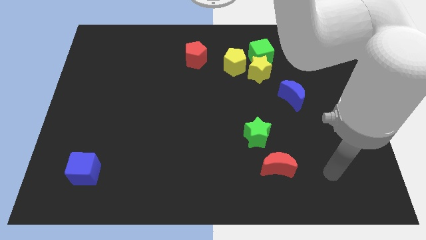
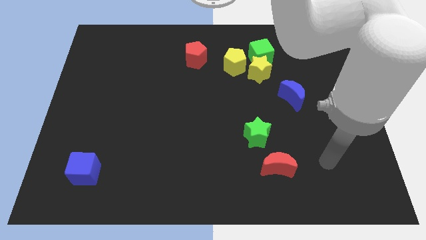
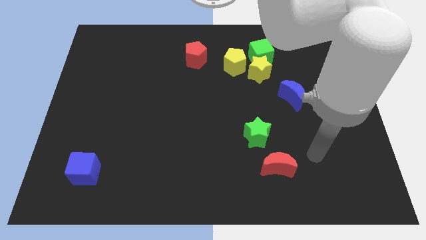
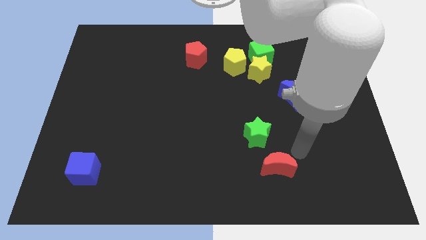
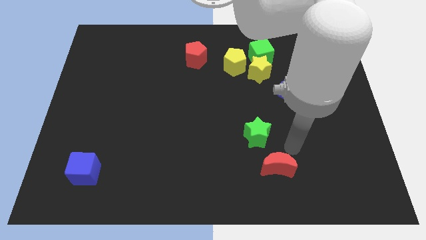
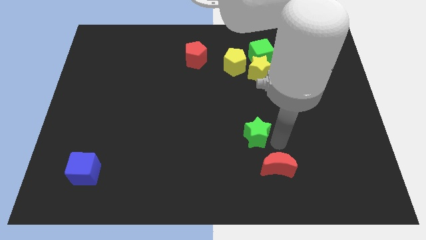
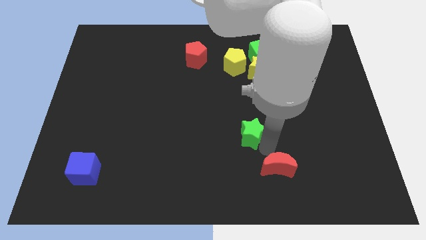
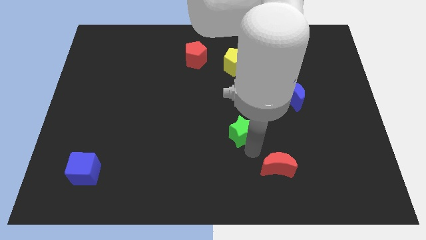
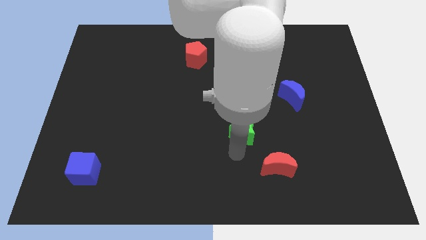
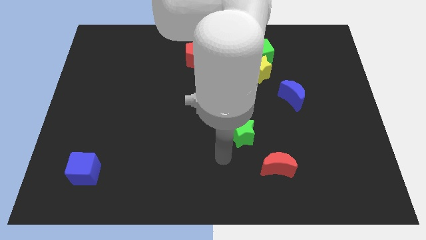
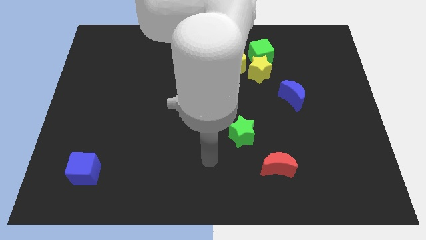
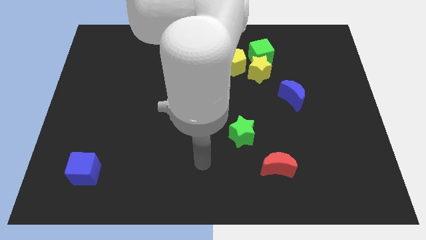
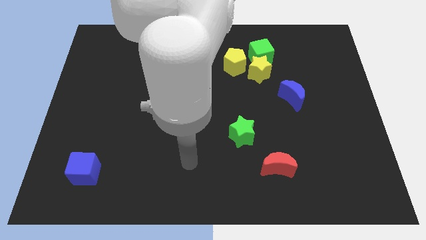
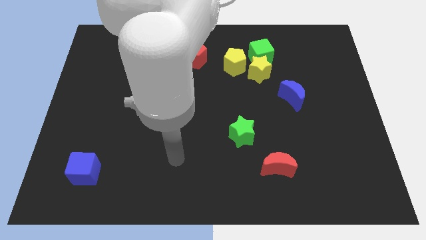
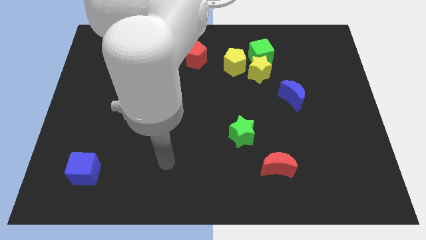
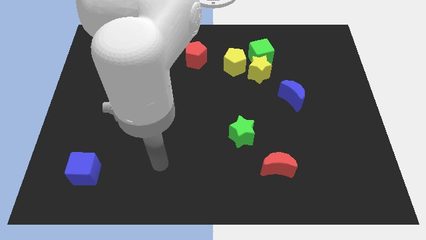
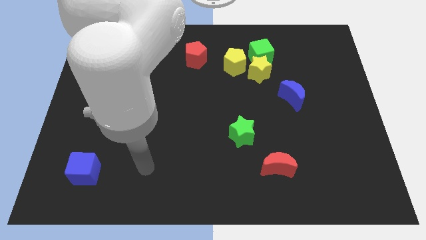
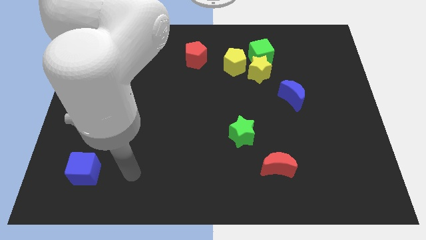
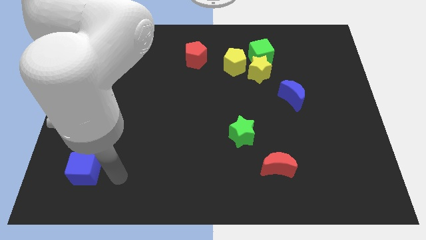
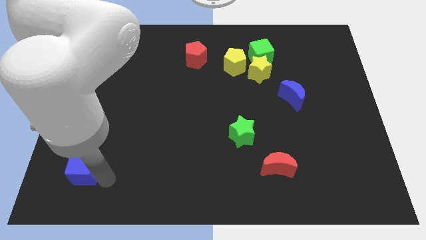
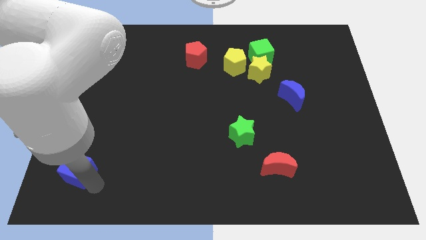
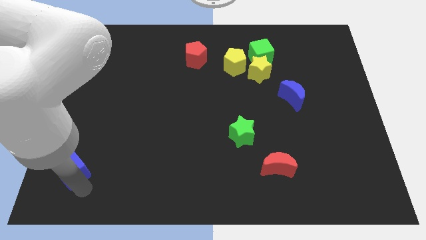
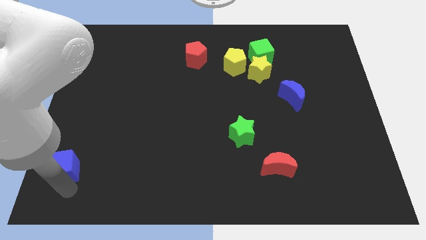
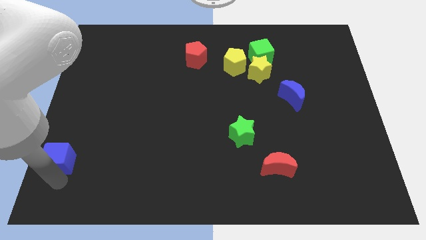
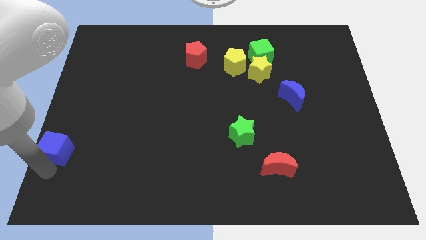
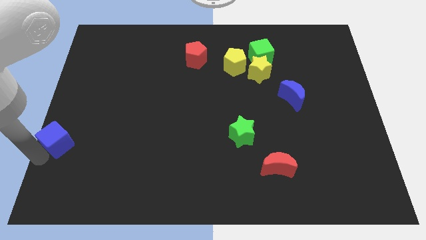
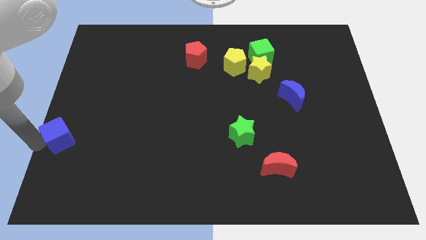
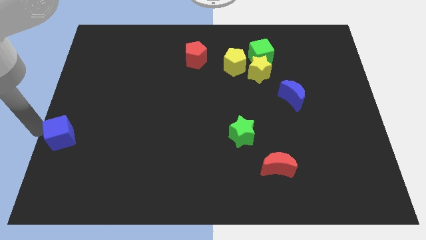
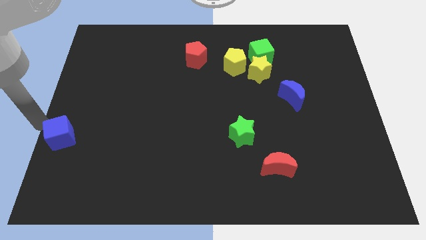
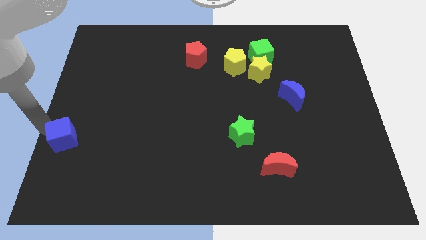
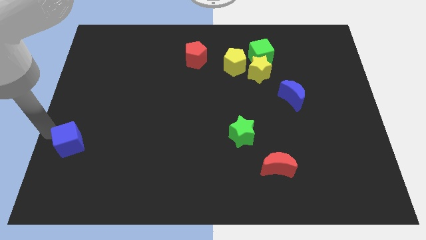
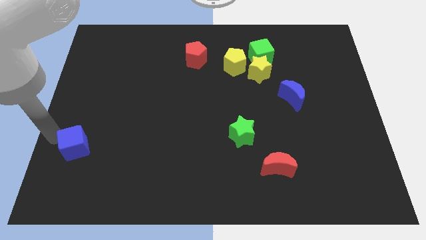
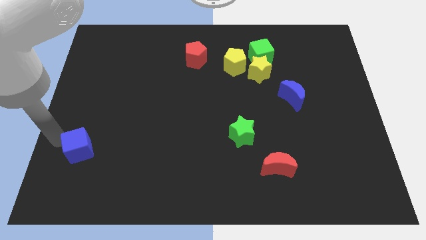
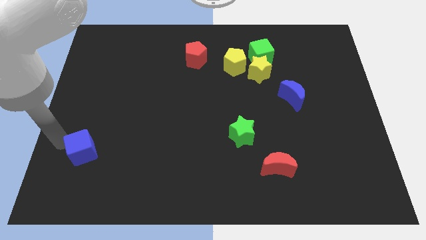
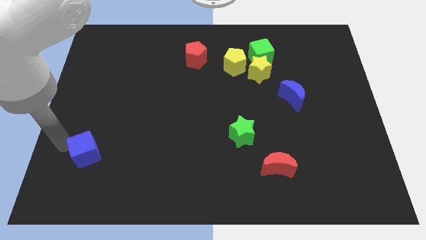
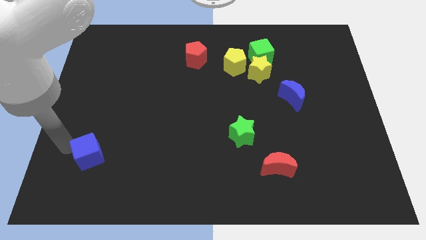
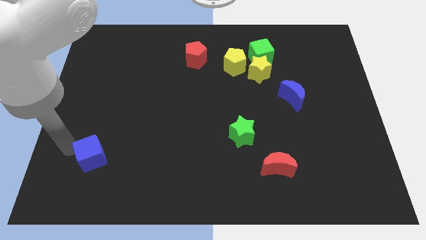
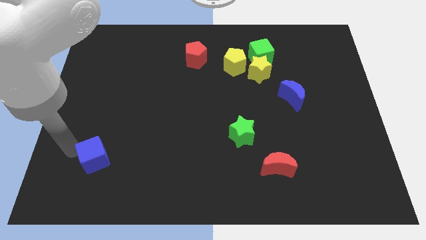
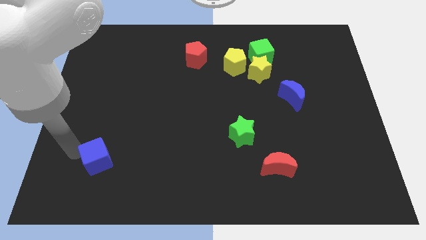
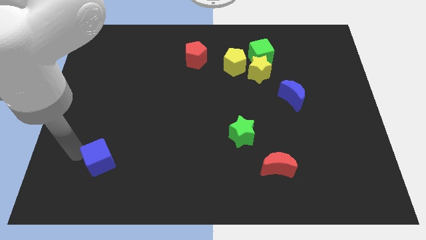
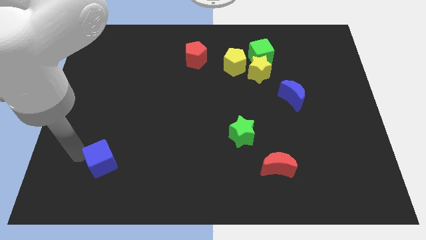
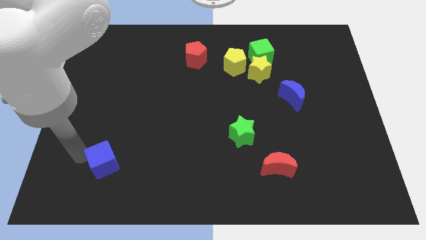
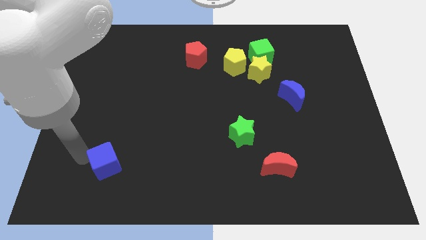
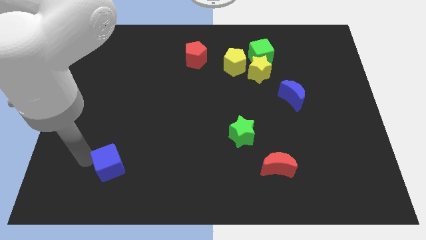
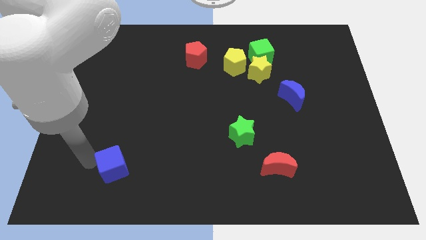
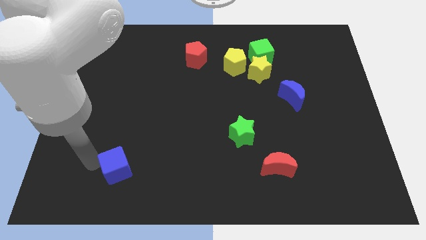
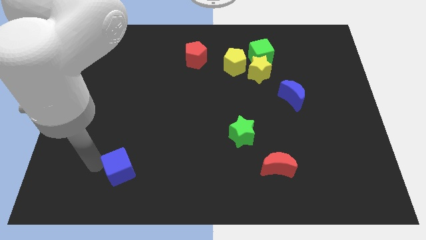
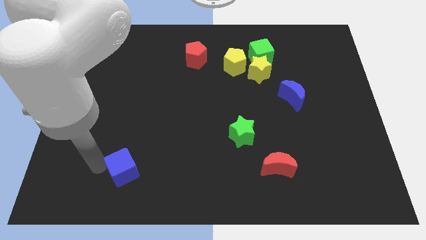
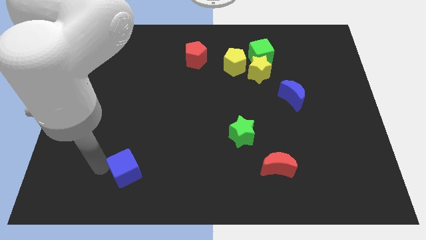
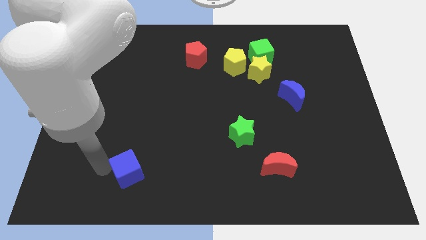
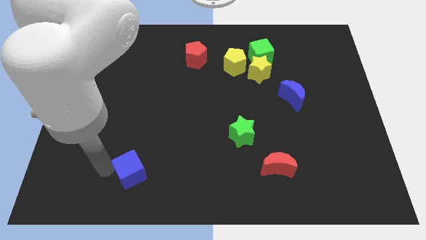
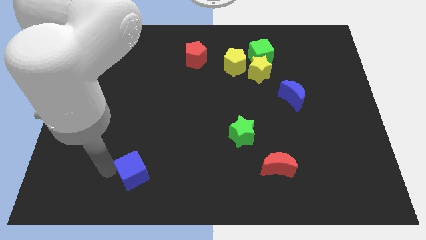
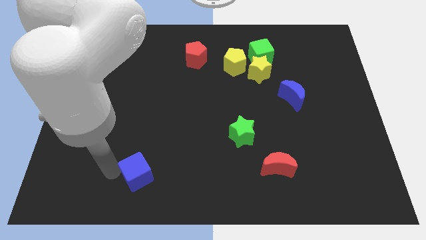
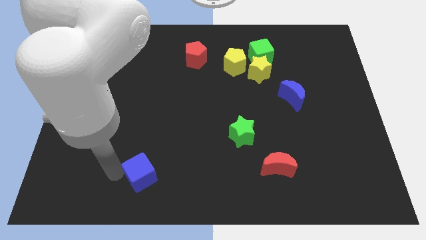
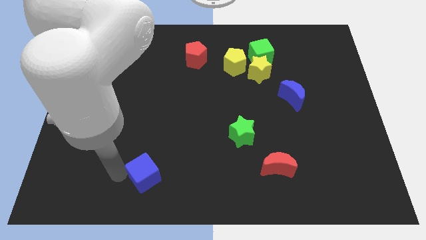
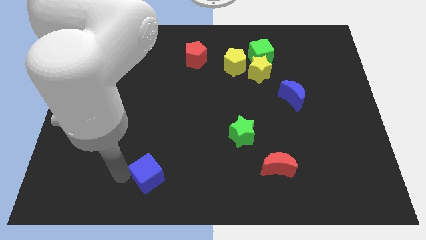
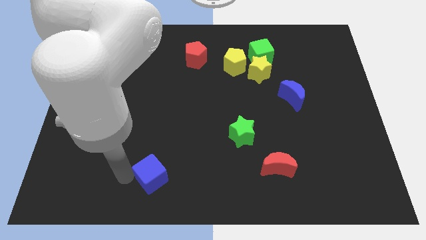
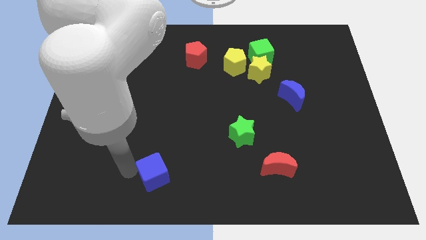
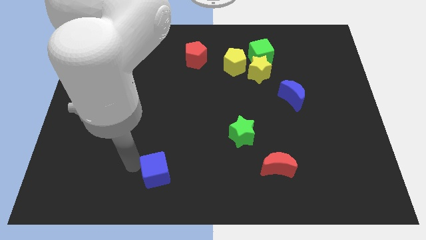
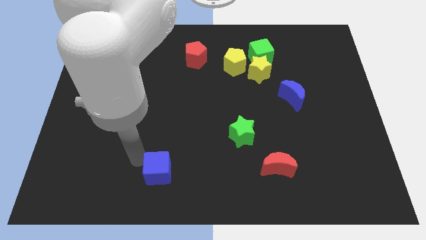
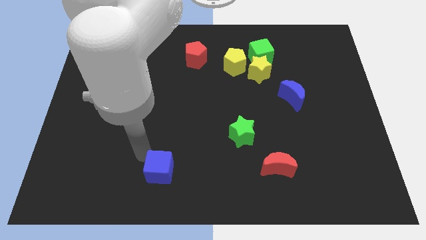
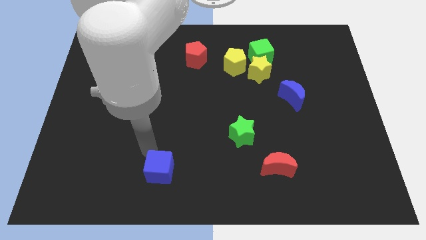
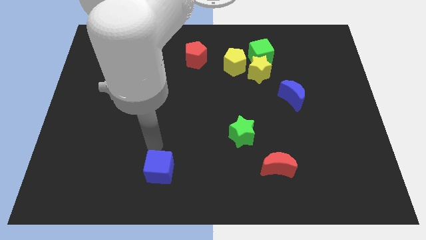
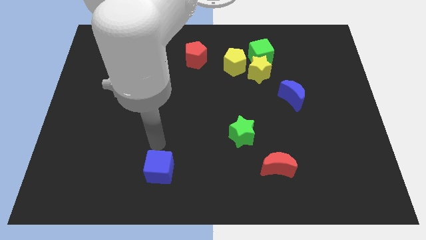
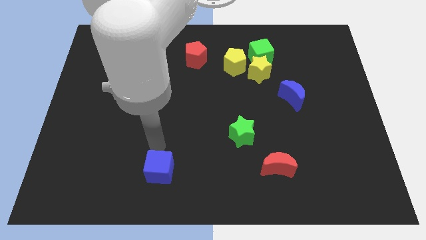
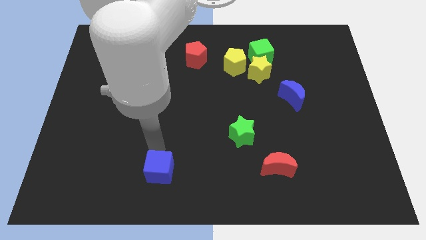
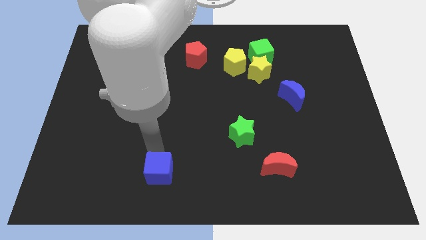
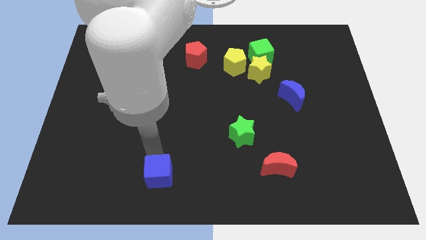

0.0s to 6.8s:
put the blue cube to the bottom

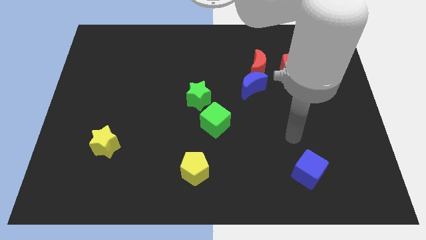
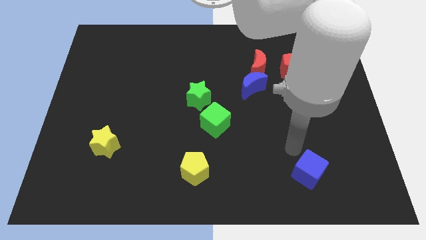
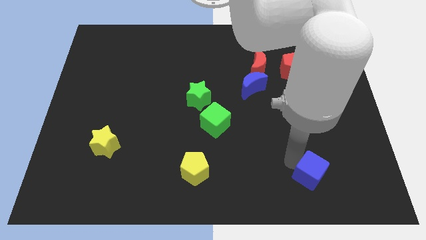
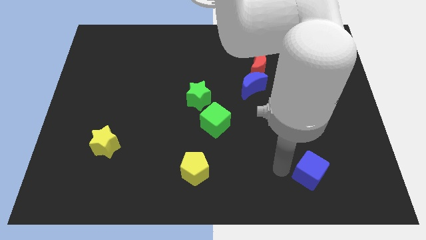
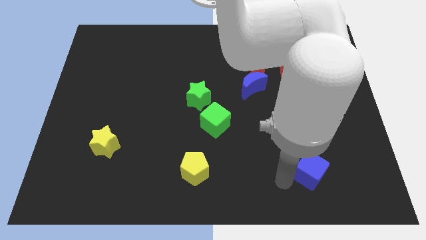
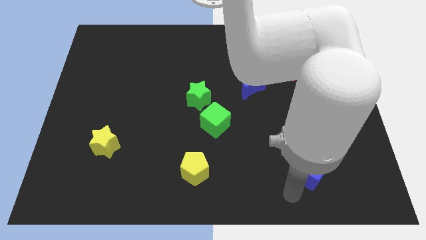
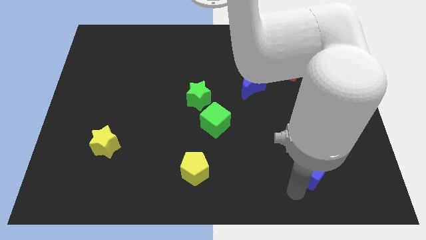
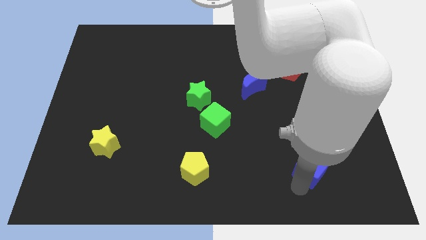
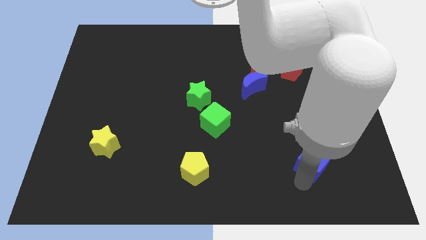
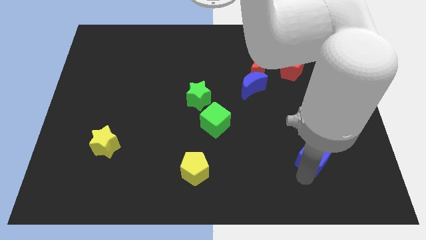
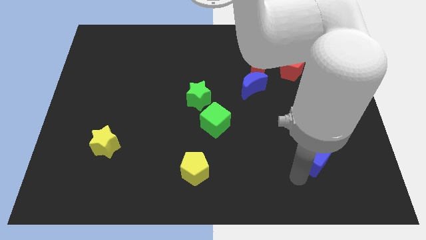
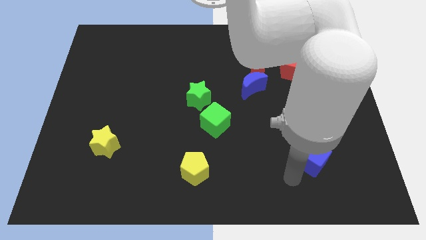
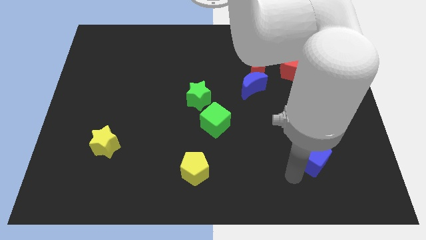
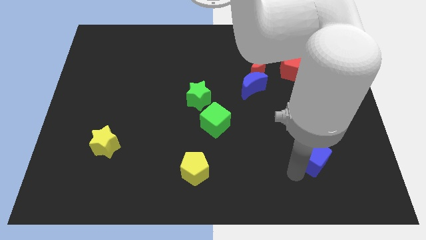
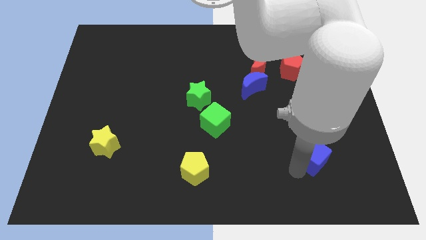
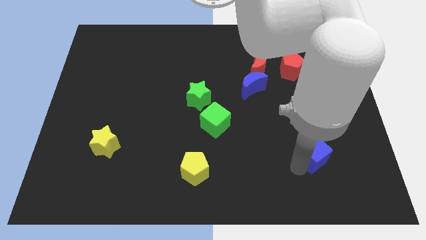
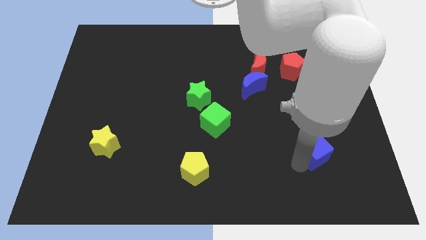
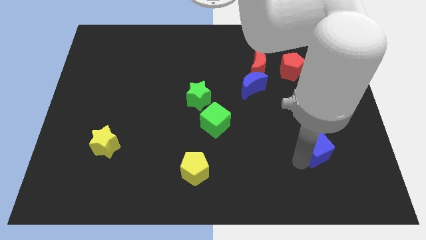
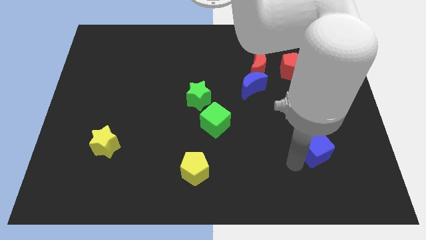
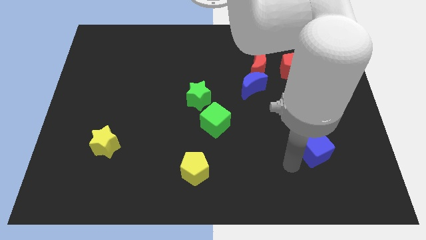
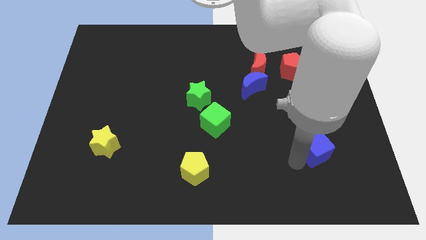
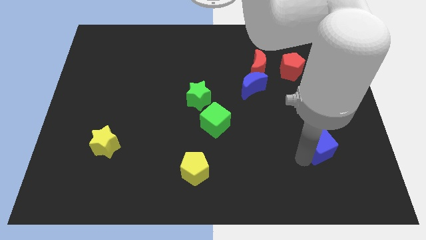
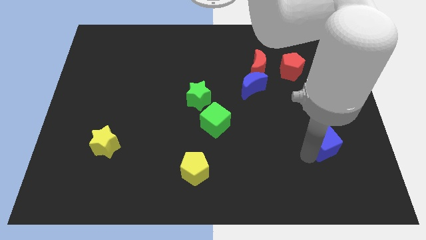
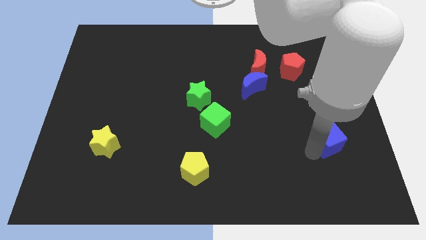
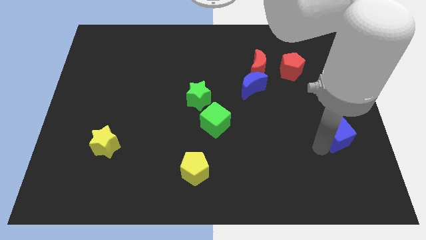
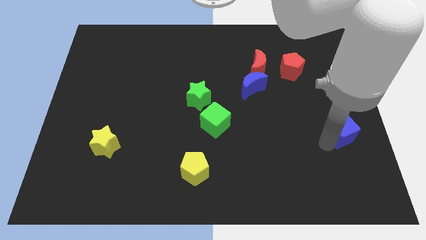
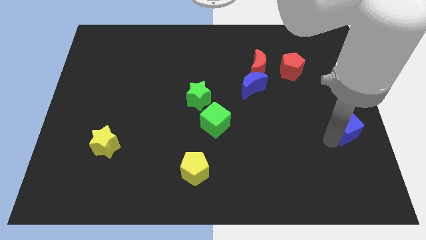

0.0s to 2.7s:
push the blue cube to the right side
